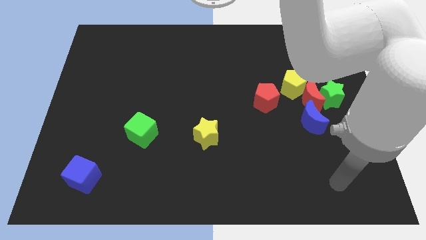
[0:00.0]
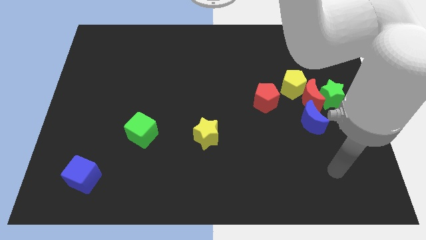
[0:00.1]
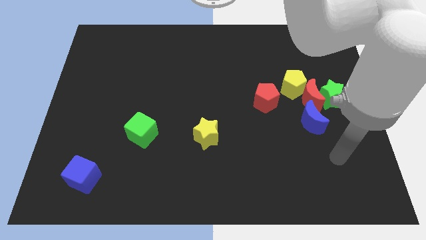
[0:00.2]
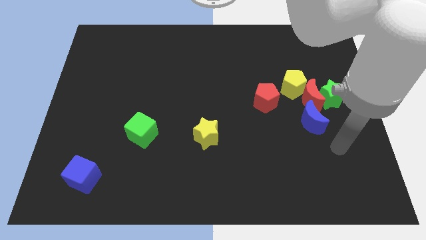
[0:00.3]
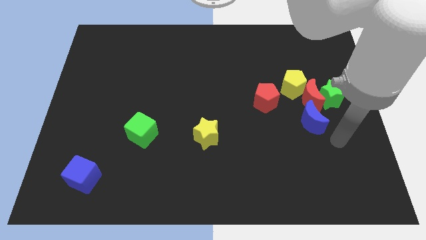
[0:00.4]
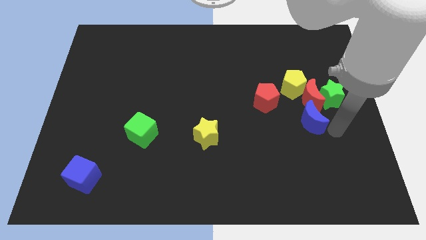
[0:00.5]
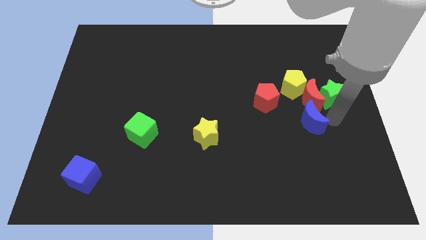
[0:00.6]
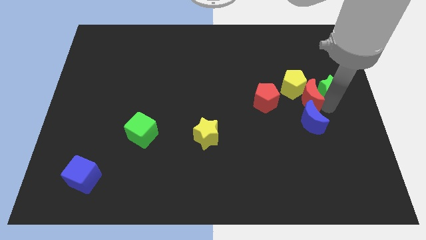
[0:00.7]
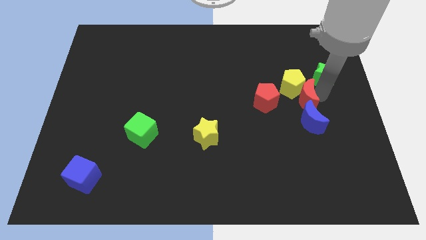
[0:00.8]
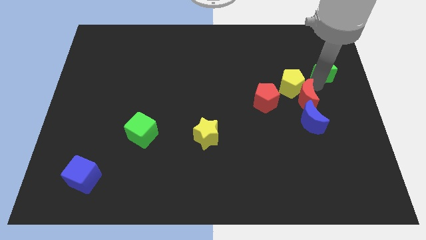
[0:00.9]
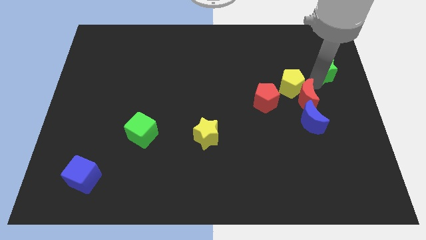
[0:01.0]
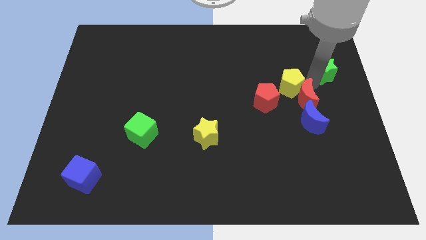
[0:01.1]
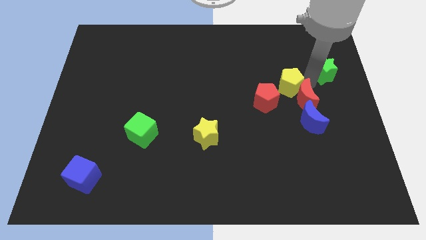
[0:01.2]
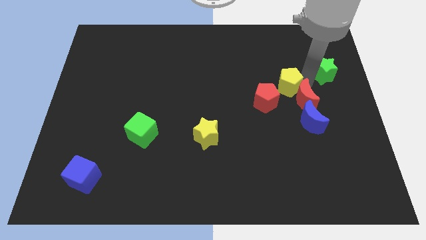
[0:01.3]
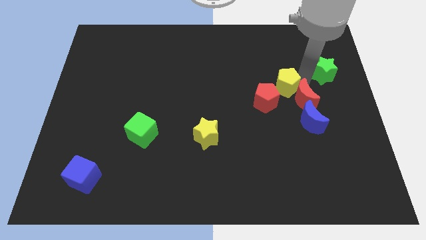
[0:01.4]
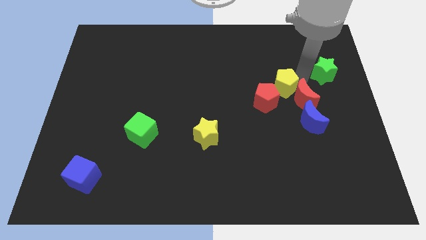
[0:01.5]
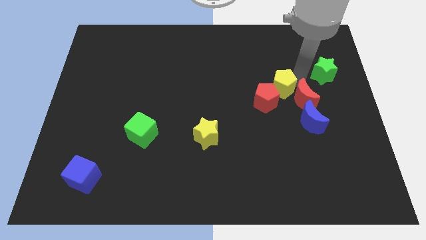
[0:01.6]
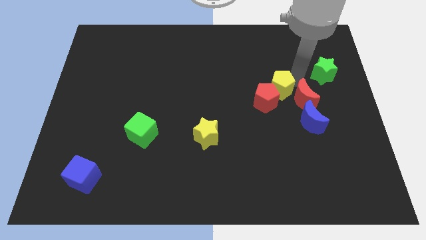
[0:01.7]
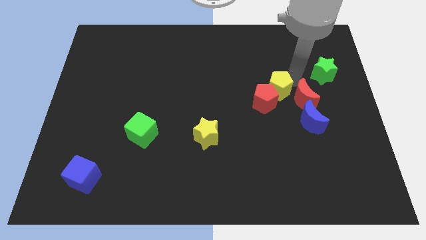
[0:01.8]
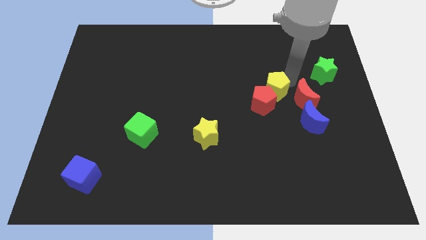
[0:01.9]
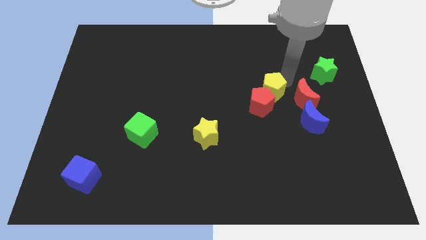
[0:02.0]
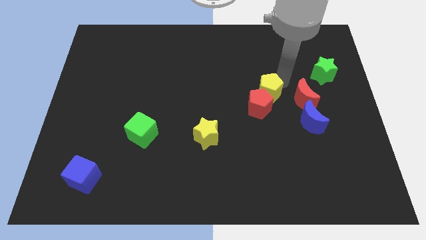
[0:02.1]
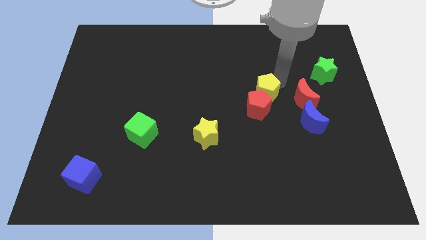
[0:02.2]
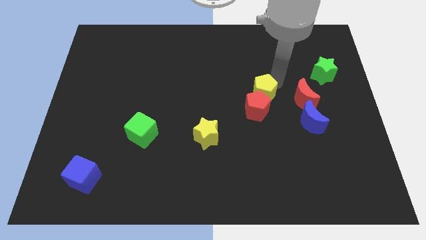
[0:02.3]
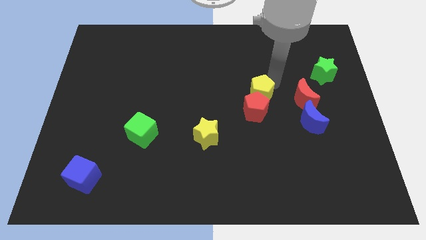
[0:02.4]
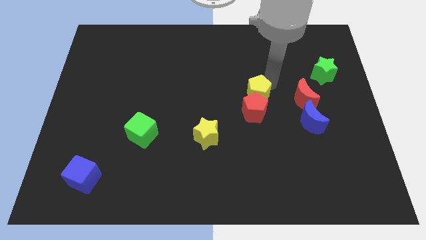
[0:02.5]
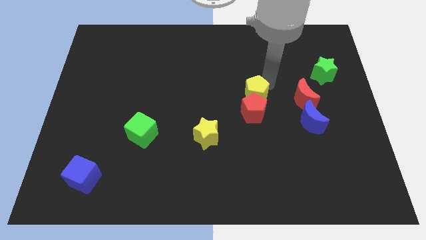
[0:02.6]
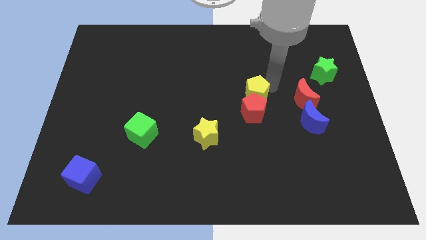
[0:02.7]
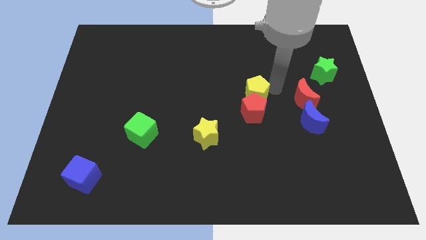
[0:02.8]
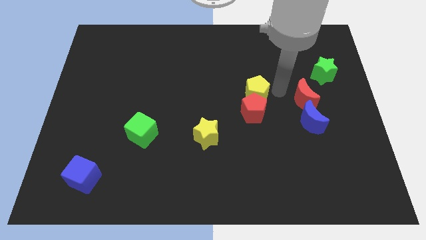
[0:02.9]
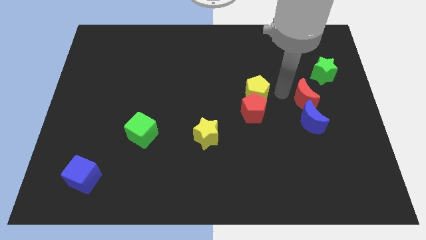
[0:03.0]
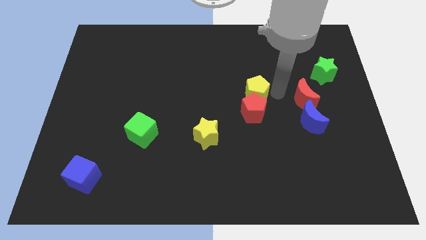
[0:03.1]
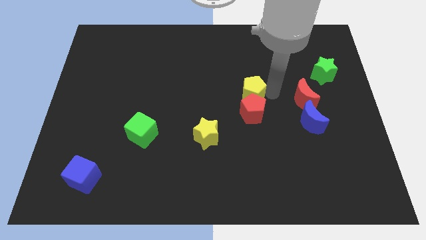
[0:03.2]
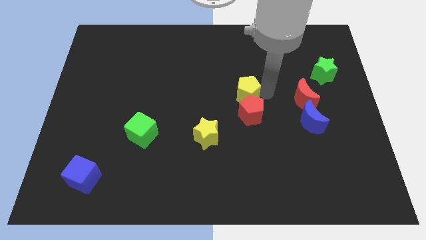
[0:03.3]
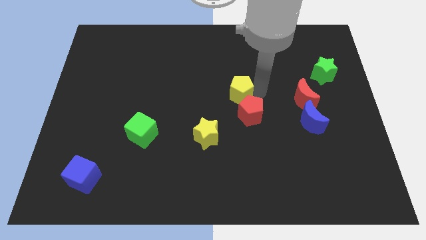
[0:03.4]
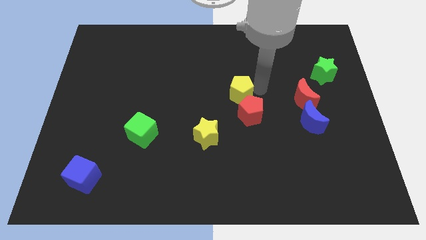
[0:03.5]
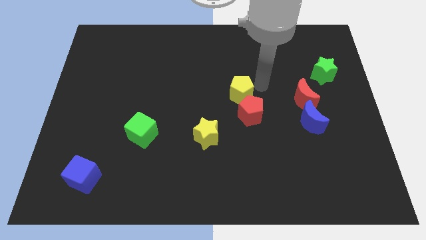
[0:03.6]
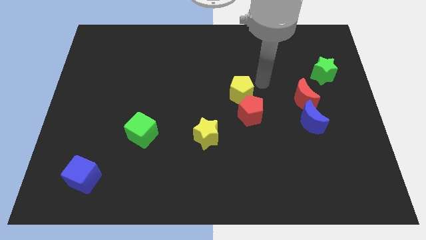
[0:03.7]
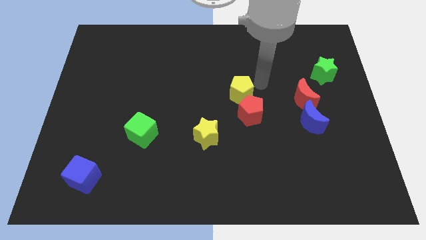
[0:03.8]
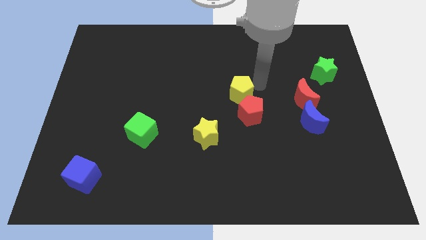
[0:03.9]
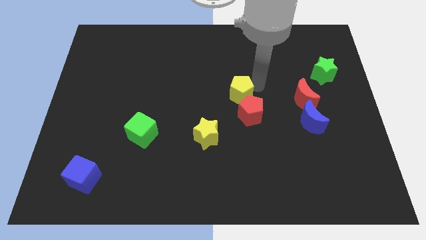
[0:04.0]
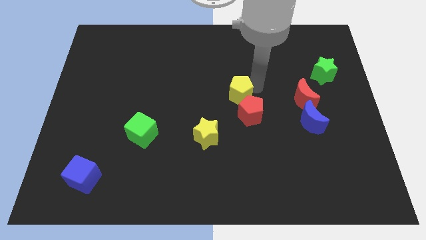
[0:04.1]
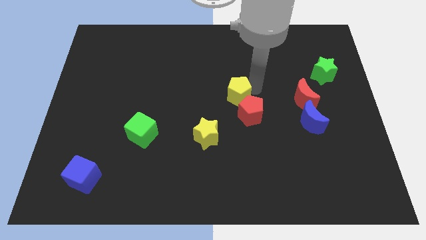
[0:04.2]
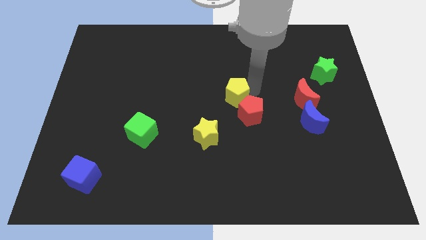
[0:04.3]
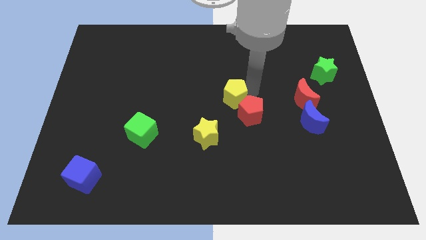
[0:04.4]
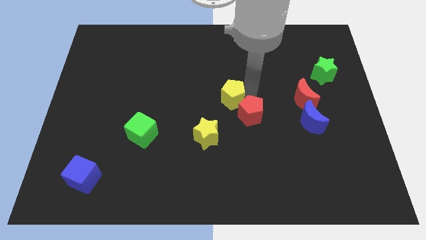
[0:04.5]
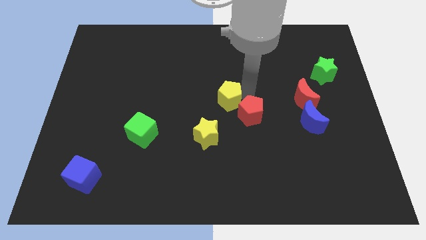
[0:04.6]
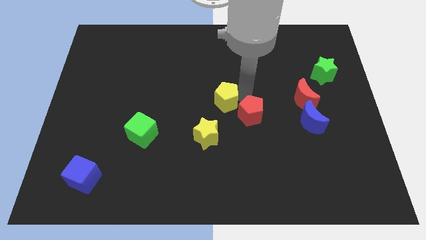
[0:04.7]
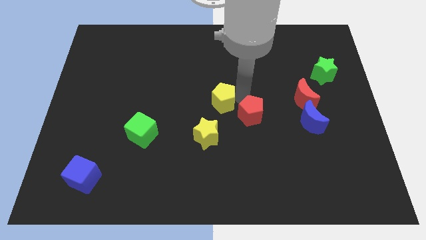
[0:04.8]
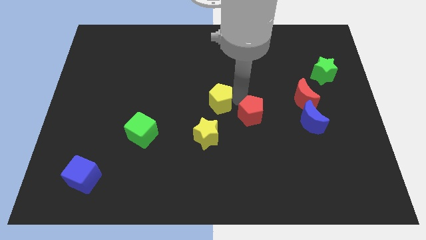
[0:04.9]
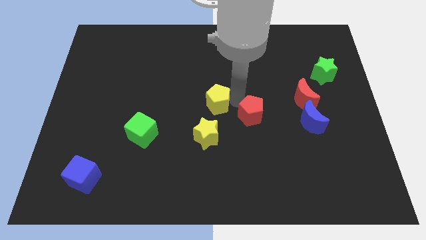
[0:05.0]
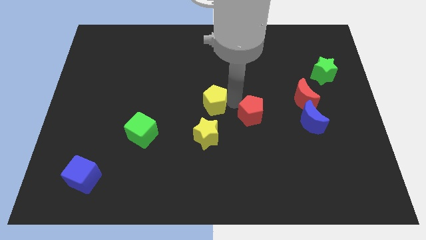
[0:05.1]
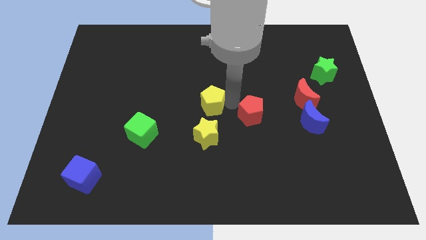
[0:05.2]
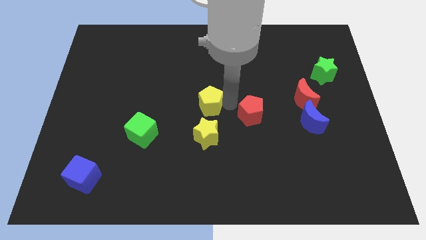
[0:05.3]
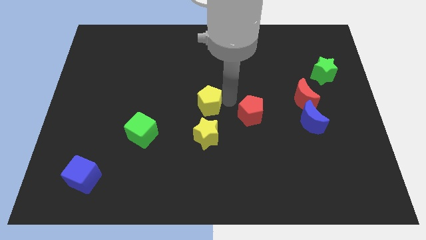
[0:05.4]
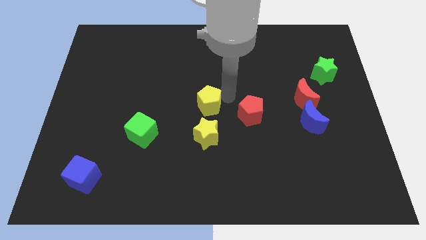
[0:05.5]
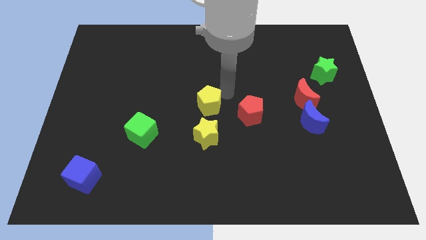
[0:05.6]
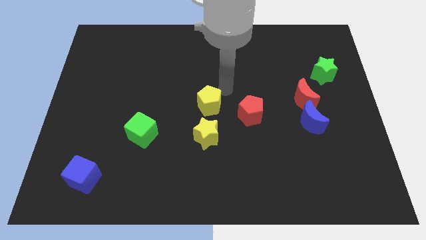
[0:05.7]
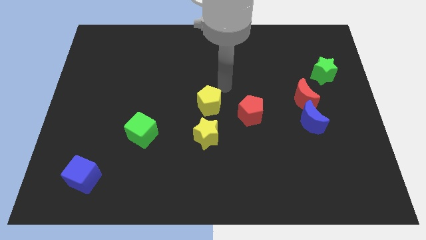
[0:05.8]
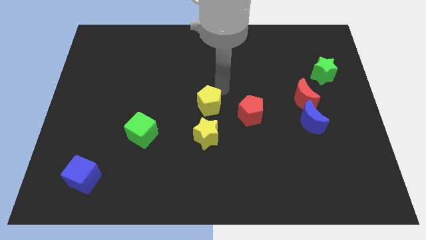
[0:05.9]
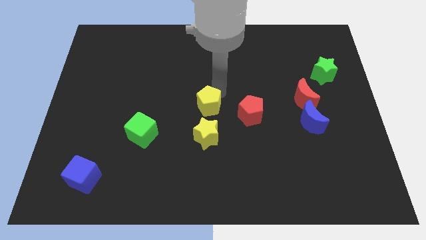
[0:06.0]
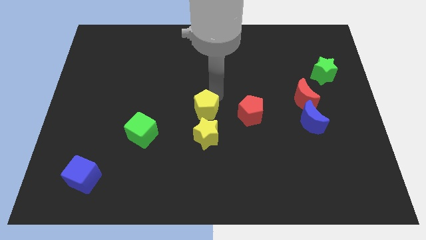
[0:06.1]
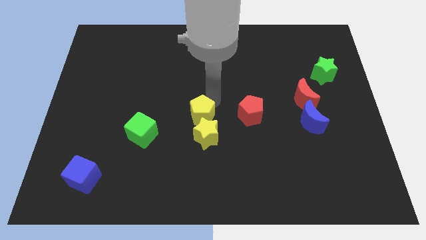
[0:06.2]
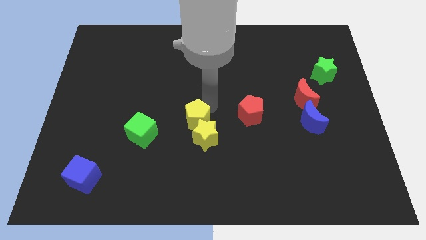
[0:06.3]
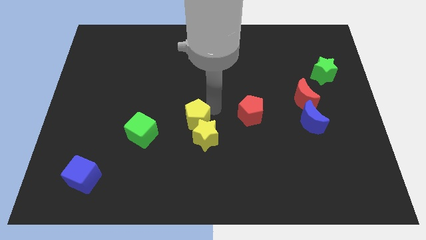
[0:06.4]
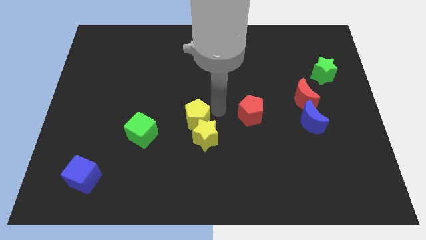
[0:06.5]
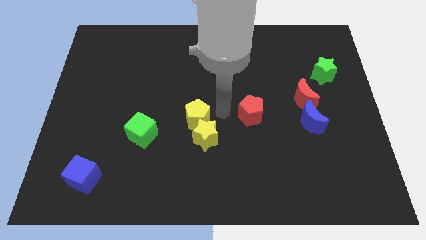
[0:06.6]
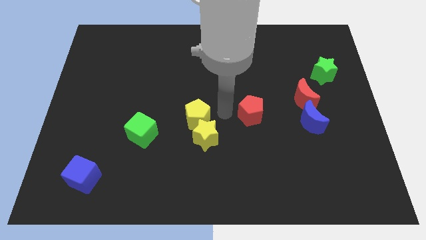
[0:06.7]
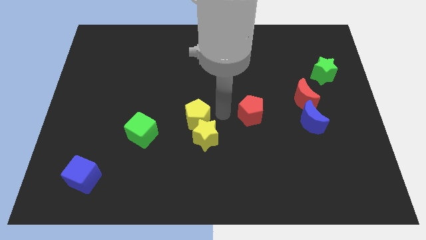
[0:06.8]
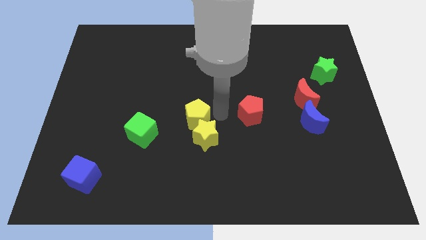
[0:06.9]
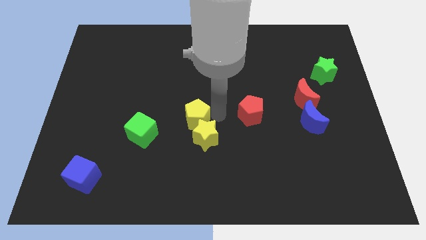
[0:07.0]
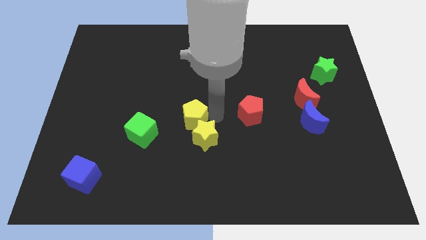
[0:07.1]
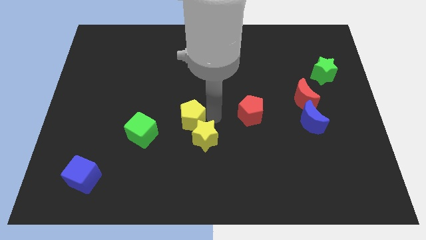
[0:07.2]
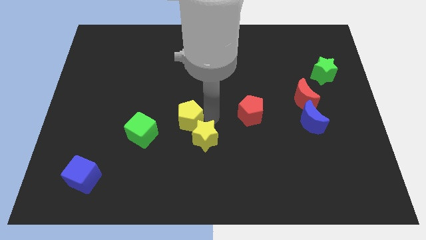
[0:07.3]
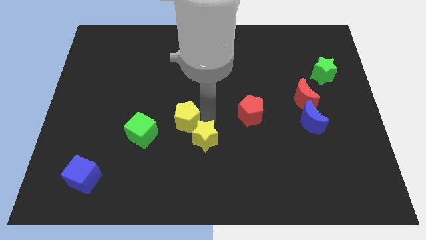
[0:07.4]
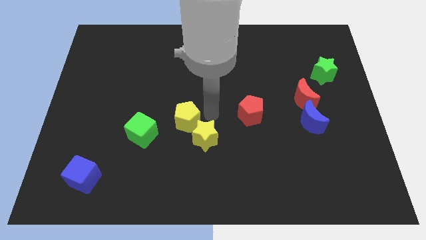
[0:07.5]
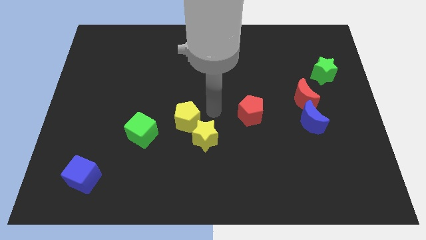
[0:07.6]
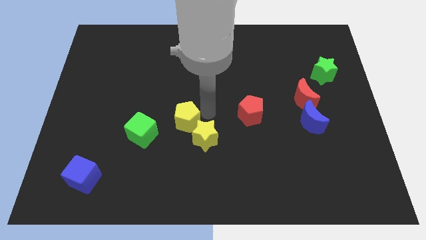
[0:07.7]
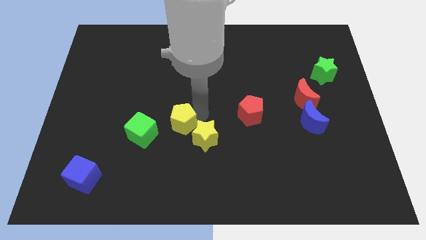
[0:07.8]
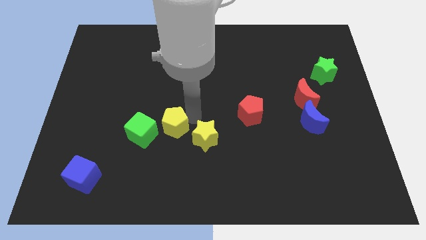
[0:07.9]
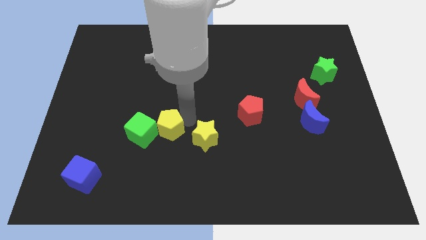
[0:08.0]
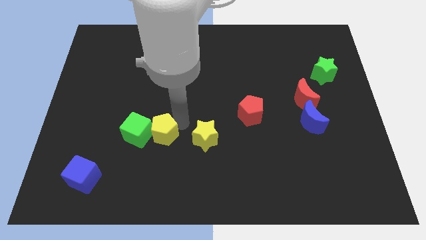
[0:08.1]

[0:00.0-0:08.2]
put the yellow pentagon next to the green cube
